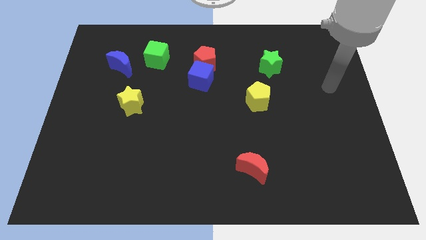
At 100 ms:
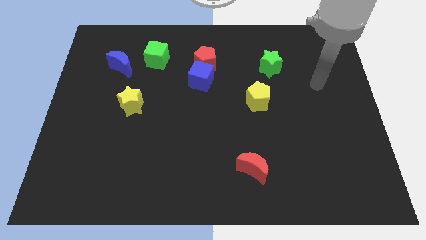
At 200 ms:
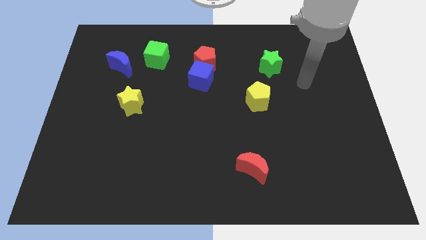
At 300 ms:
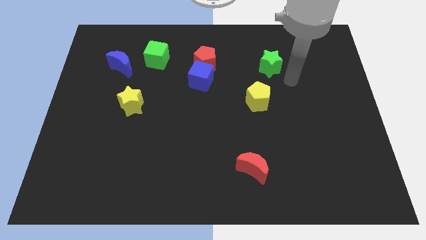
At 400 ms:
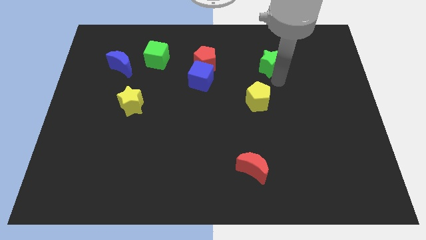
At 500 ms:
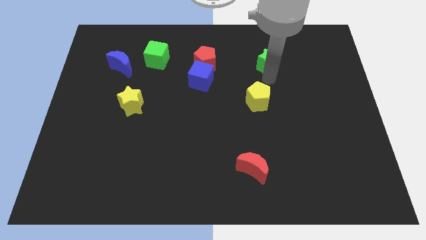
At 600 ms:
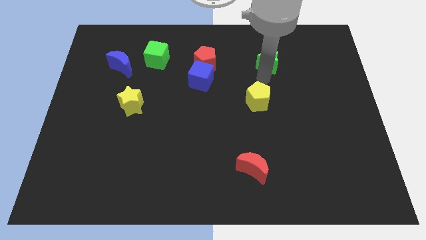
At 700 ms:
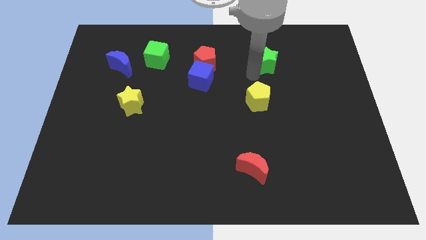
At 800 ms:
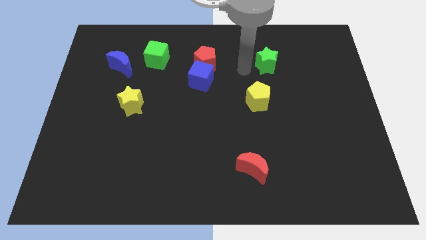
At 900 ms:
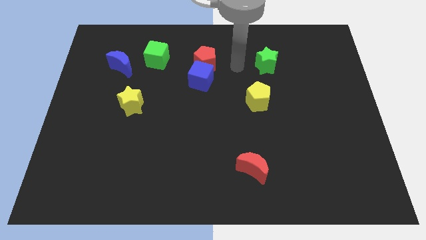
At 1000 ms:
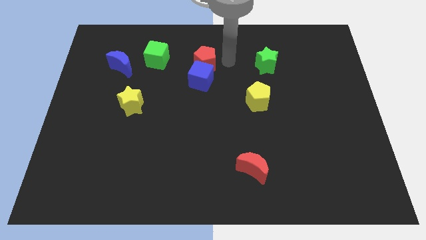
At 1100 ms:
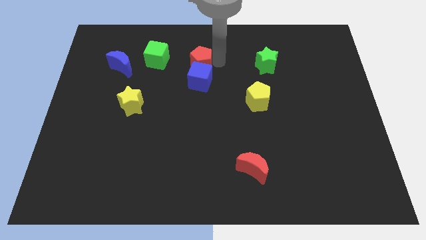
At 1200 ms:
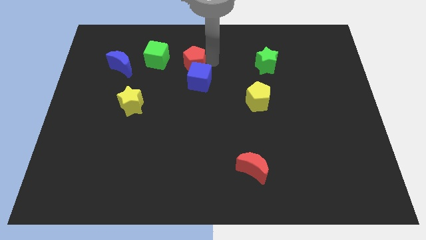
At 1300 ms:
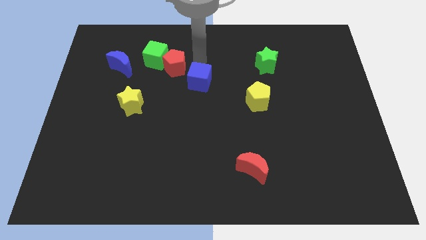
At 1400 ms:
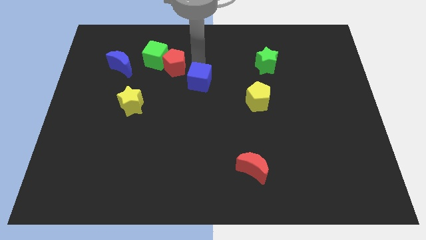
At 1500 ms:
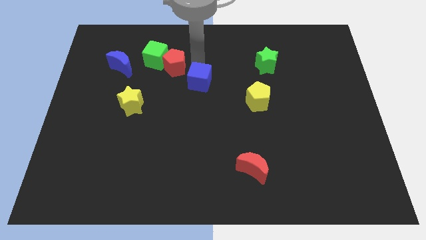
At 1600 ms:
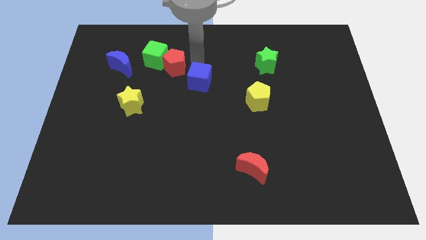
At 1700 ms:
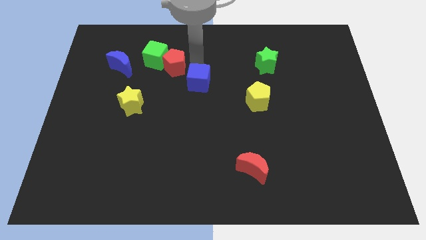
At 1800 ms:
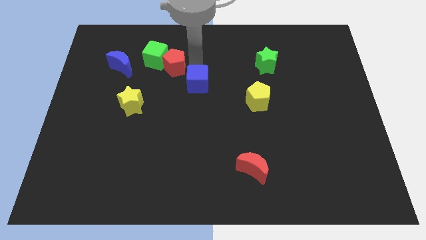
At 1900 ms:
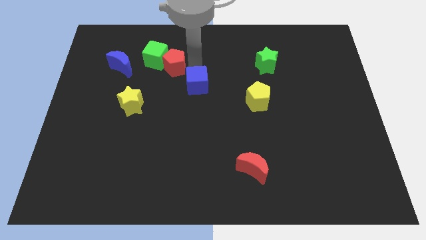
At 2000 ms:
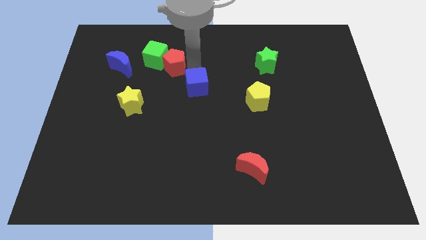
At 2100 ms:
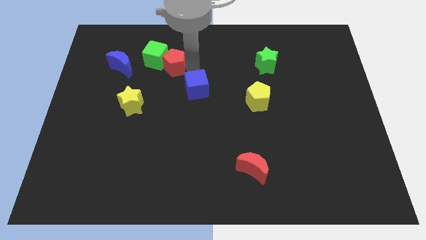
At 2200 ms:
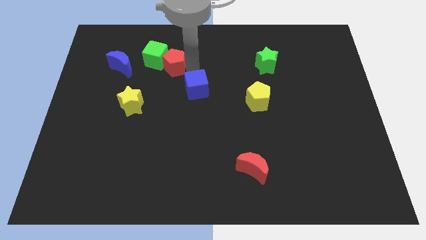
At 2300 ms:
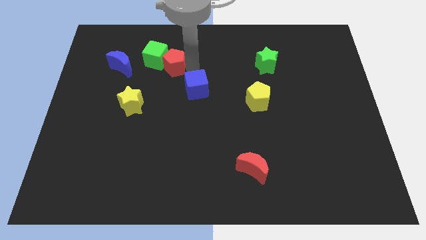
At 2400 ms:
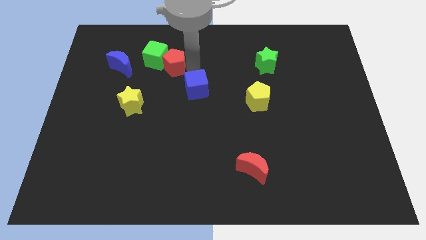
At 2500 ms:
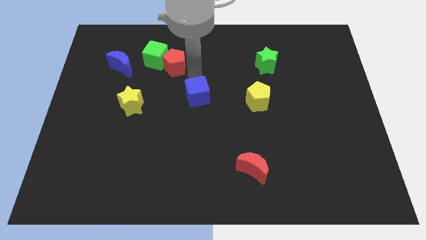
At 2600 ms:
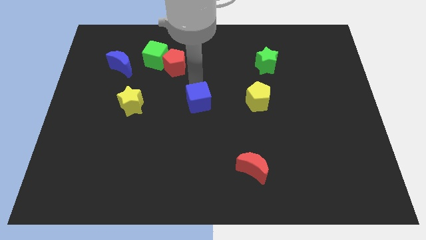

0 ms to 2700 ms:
slide the blue cube down a little

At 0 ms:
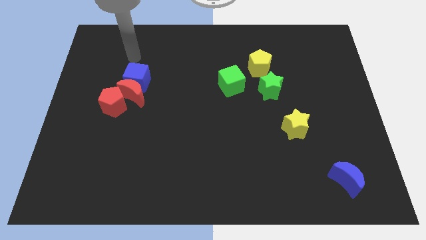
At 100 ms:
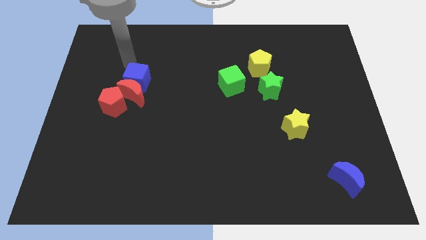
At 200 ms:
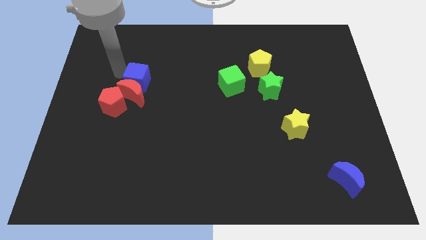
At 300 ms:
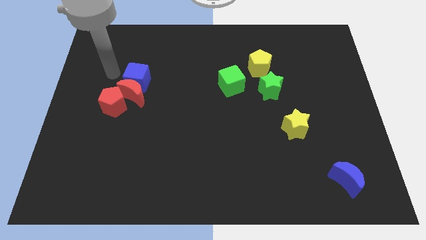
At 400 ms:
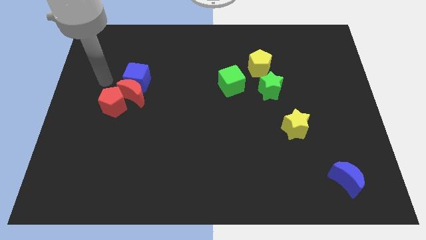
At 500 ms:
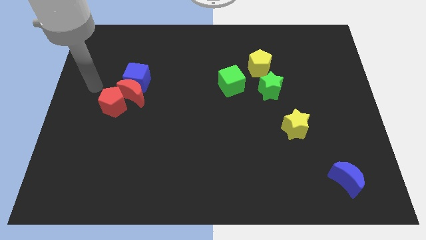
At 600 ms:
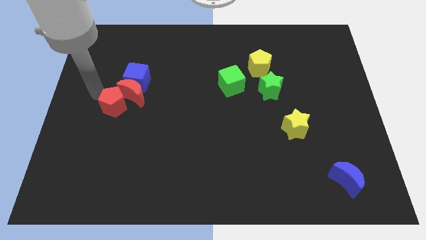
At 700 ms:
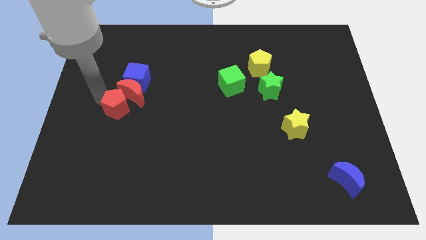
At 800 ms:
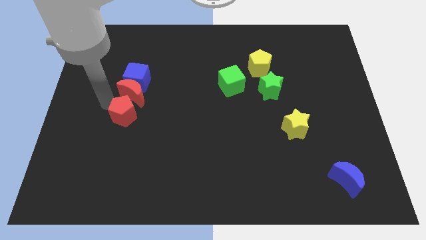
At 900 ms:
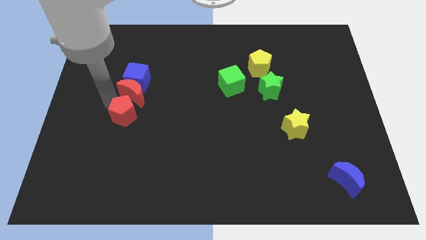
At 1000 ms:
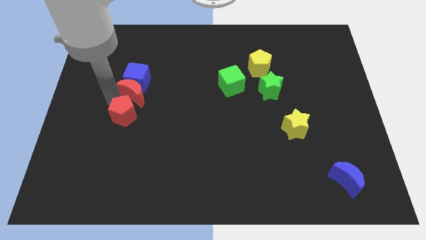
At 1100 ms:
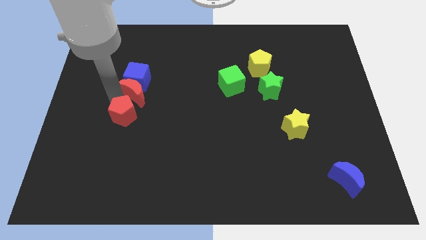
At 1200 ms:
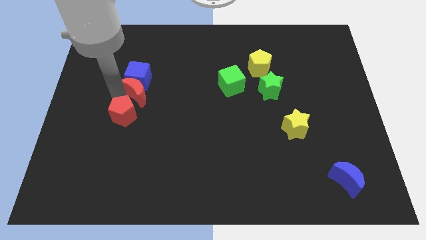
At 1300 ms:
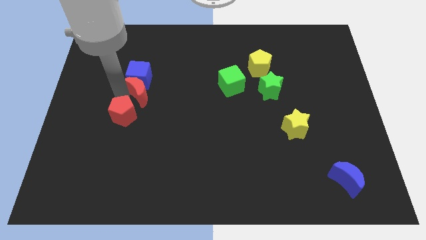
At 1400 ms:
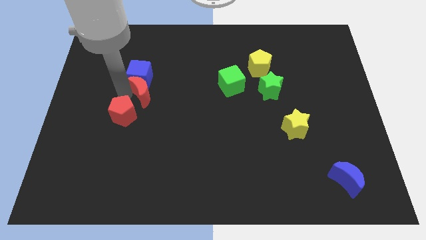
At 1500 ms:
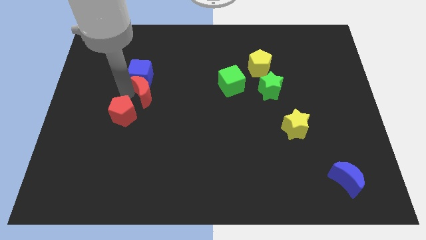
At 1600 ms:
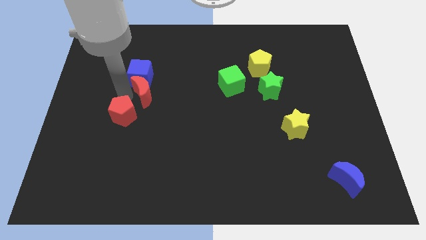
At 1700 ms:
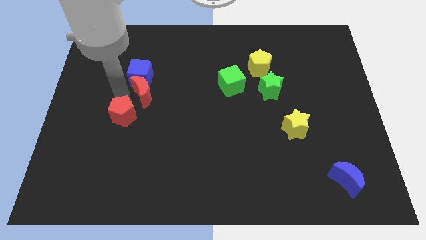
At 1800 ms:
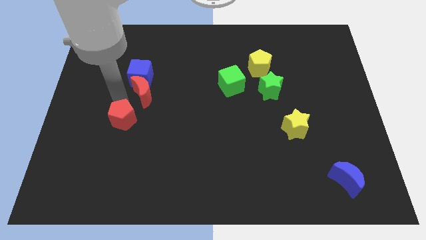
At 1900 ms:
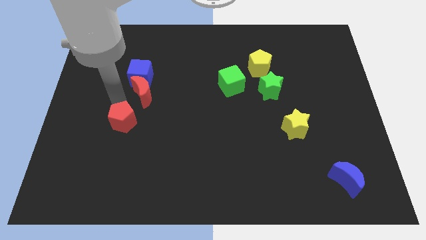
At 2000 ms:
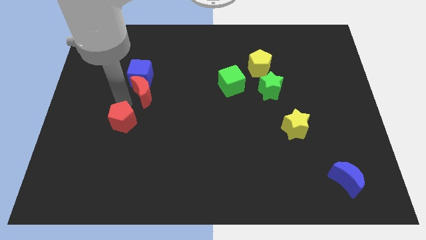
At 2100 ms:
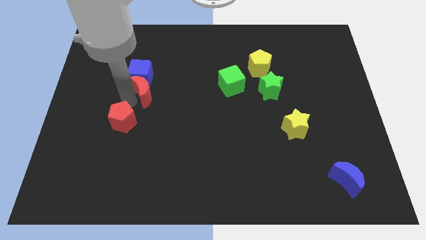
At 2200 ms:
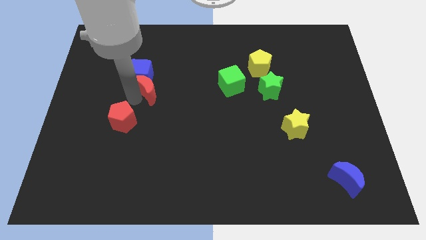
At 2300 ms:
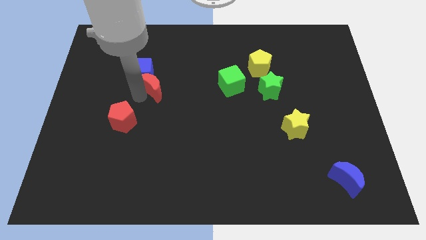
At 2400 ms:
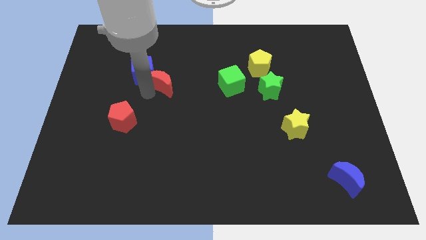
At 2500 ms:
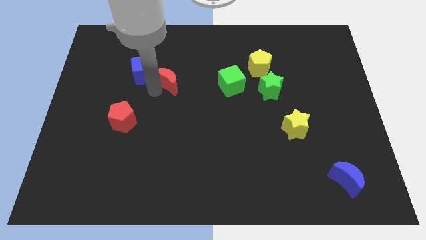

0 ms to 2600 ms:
push the red moon slightly up and right

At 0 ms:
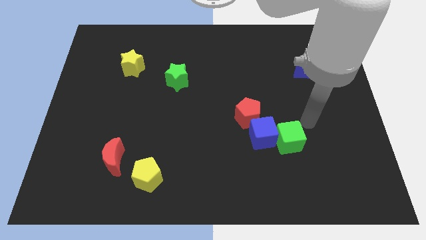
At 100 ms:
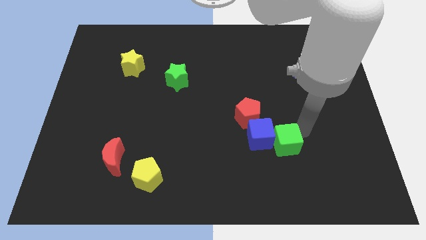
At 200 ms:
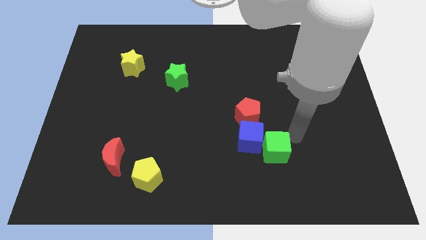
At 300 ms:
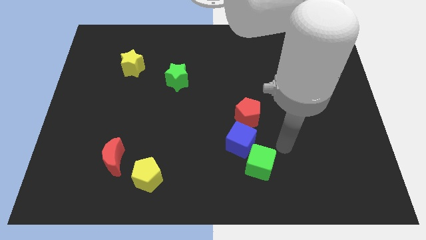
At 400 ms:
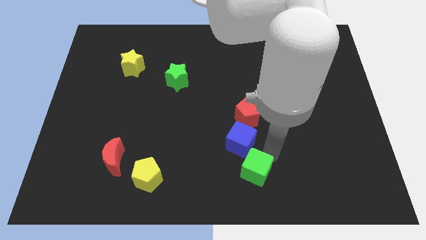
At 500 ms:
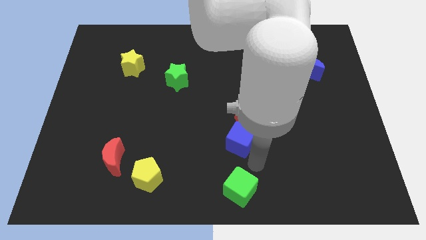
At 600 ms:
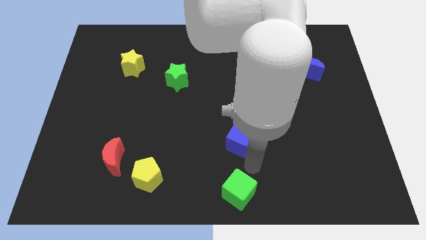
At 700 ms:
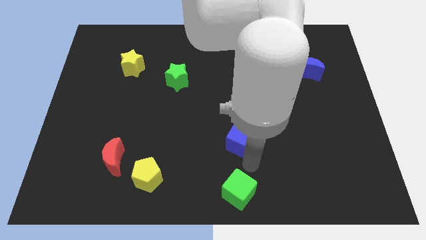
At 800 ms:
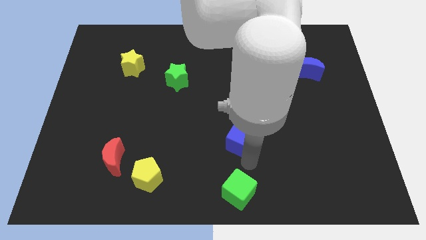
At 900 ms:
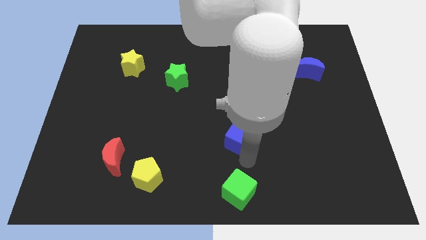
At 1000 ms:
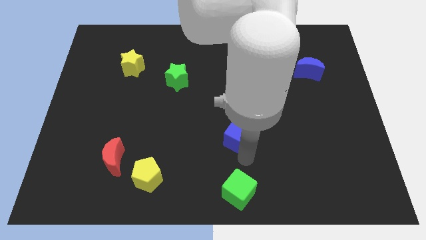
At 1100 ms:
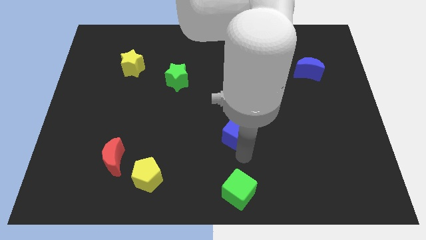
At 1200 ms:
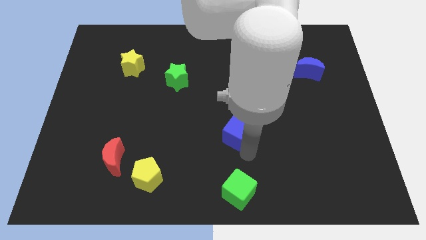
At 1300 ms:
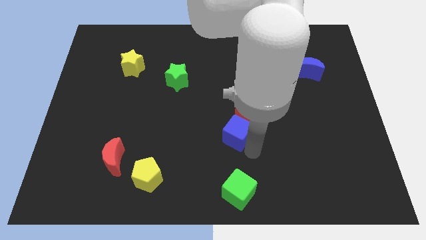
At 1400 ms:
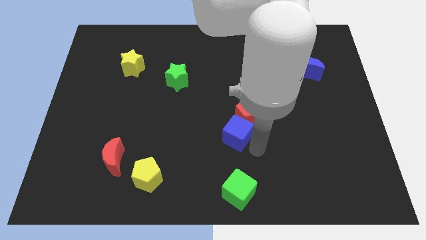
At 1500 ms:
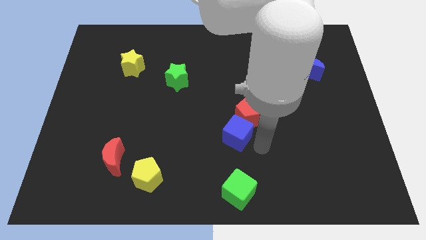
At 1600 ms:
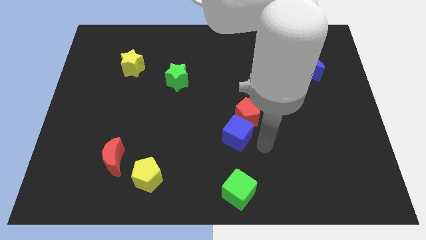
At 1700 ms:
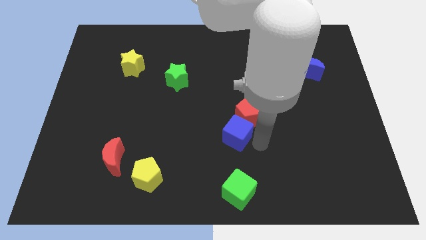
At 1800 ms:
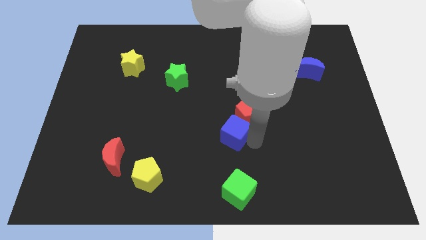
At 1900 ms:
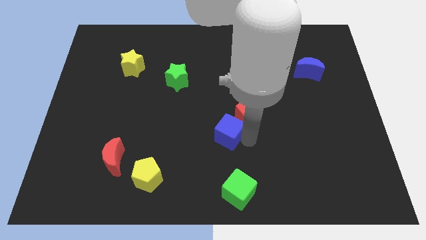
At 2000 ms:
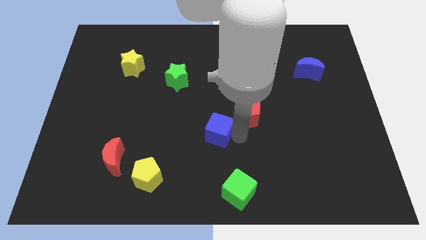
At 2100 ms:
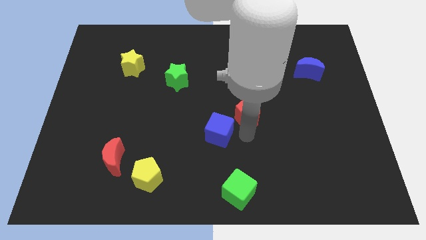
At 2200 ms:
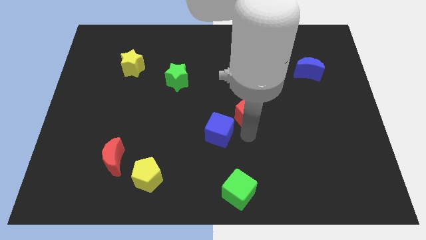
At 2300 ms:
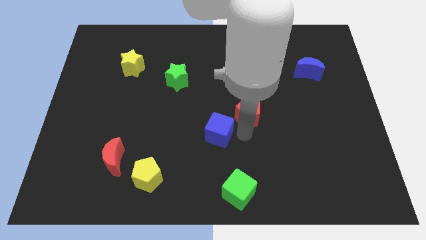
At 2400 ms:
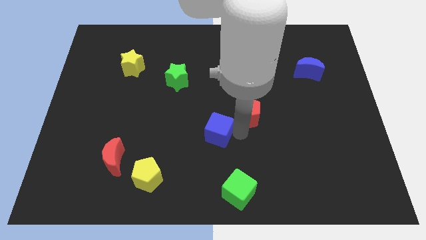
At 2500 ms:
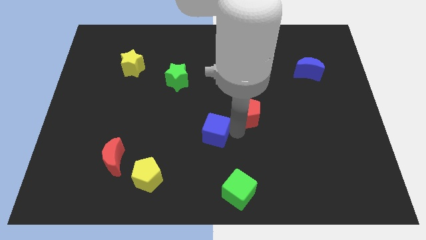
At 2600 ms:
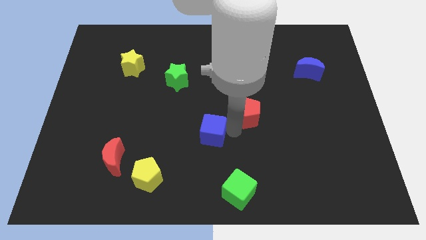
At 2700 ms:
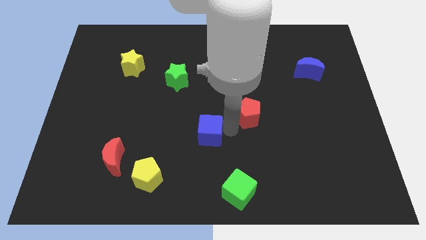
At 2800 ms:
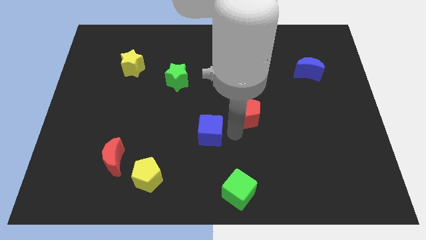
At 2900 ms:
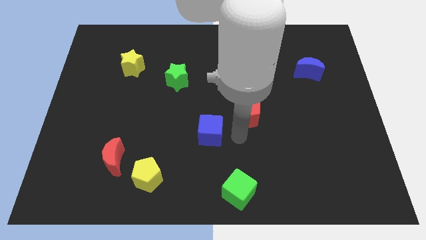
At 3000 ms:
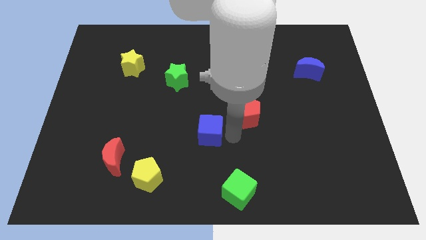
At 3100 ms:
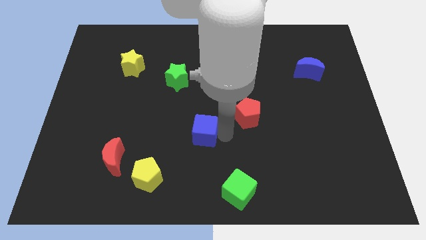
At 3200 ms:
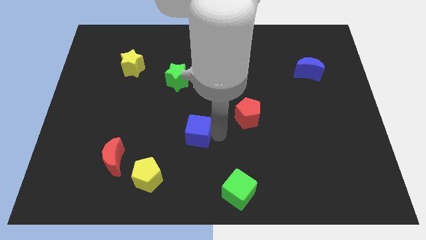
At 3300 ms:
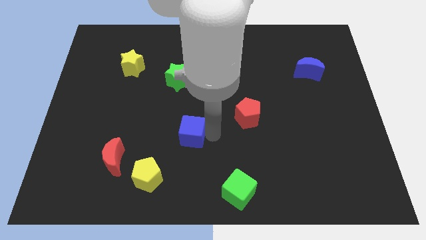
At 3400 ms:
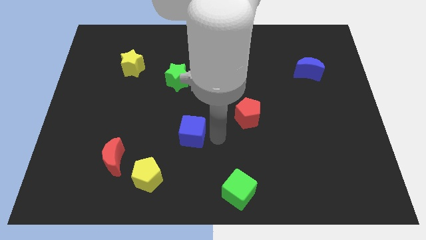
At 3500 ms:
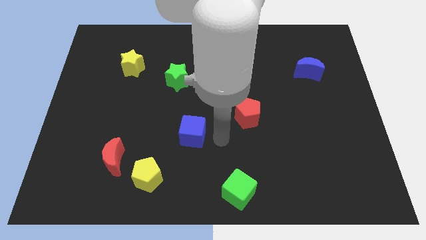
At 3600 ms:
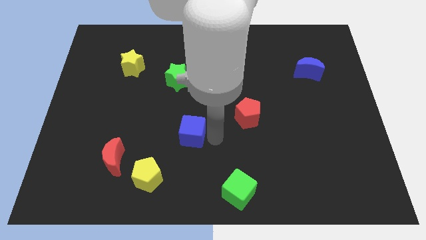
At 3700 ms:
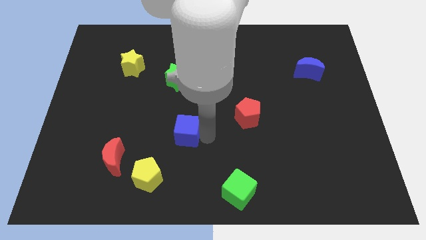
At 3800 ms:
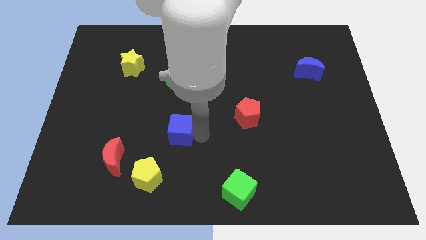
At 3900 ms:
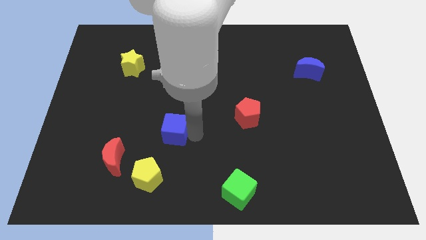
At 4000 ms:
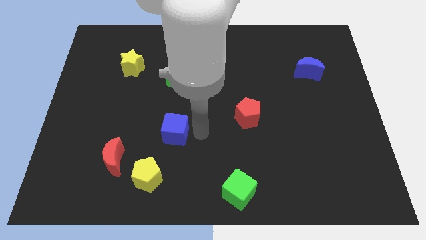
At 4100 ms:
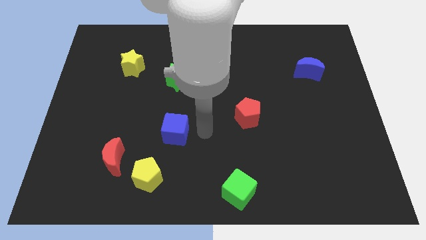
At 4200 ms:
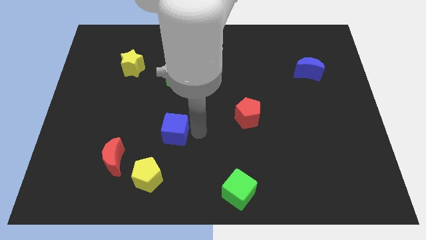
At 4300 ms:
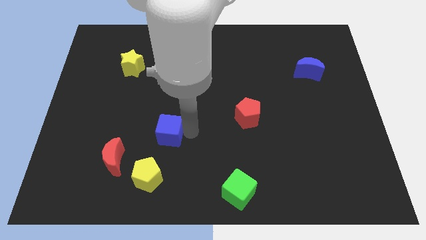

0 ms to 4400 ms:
push the blue cube left
